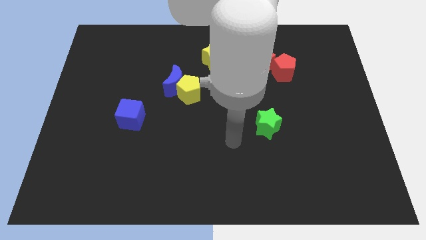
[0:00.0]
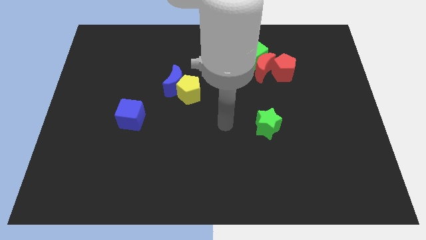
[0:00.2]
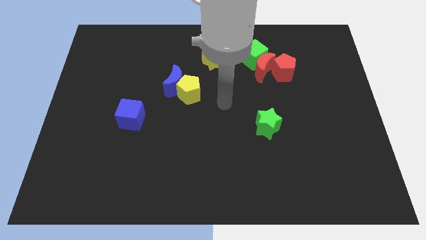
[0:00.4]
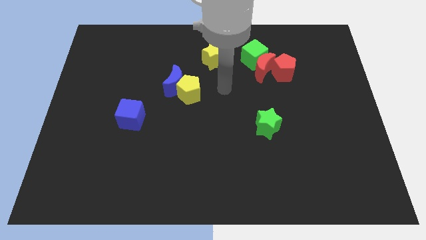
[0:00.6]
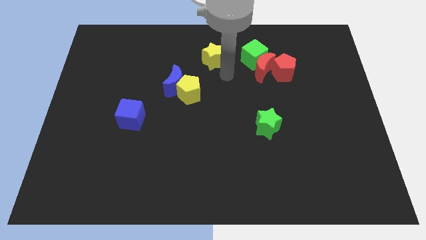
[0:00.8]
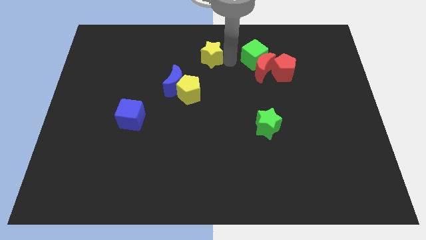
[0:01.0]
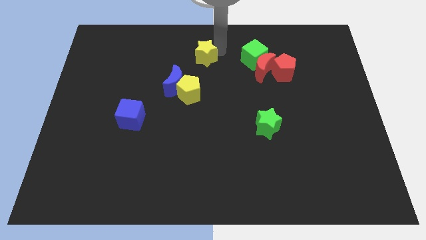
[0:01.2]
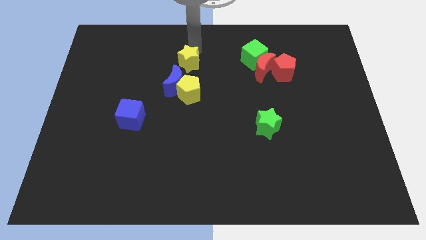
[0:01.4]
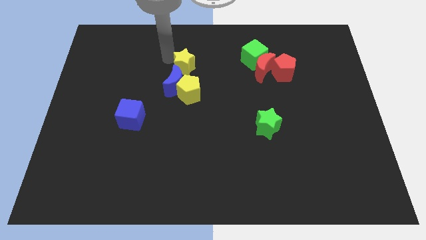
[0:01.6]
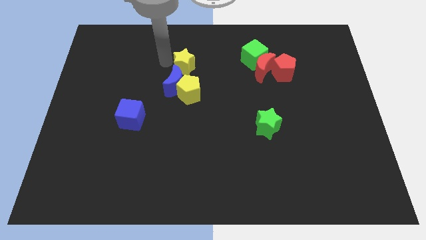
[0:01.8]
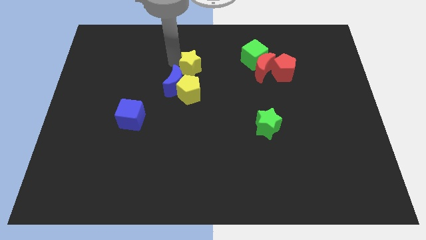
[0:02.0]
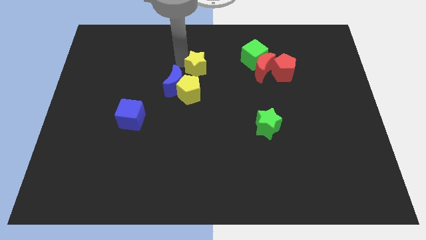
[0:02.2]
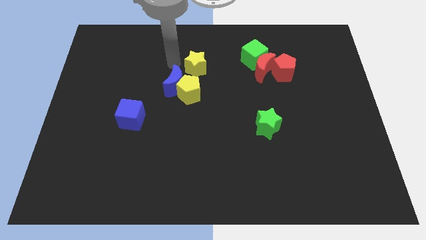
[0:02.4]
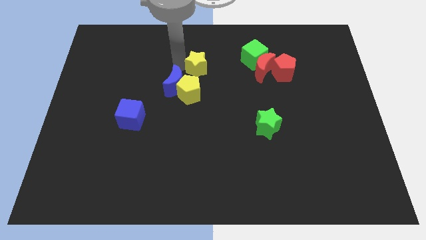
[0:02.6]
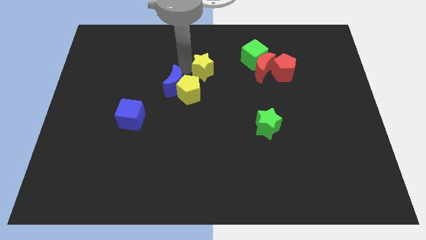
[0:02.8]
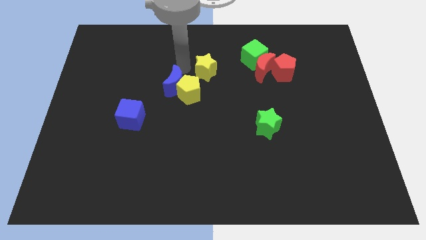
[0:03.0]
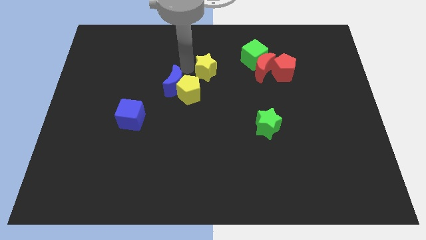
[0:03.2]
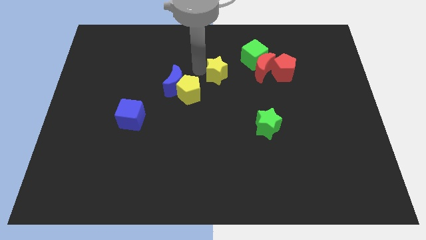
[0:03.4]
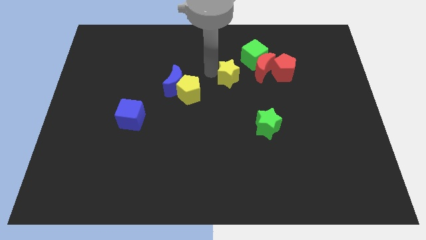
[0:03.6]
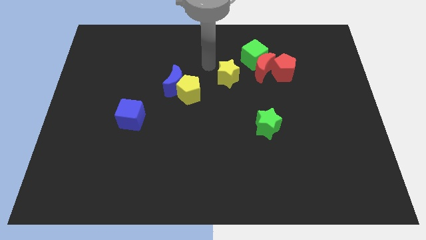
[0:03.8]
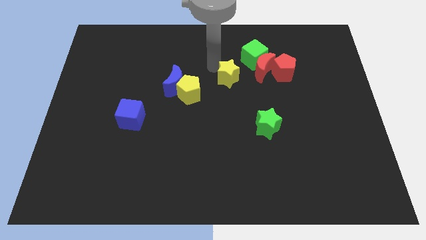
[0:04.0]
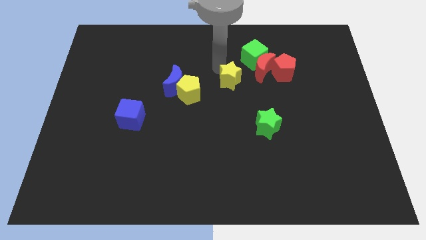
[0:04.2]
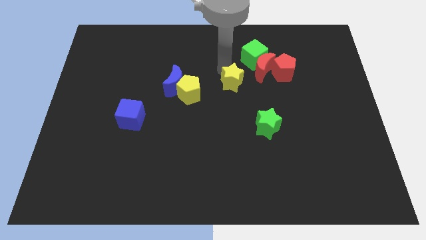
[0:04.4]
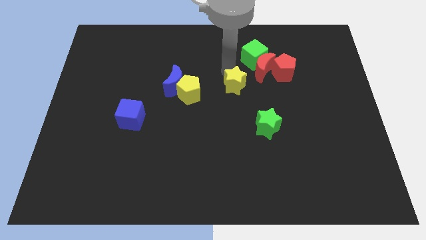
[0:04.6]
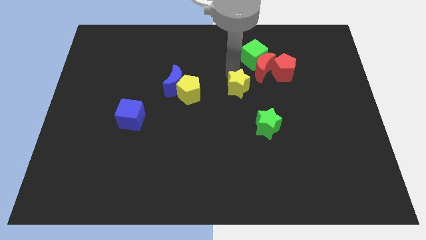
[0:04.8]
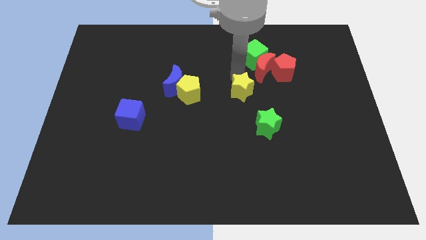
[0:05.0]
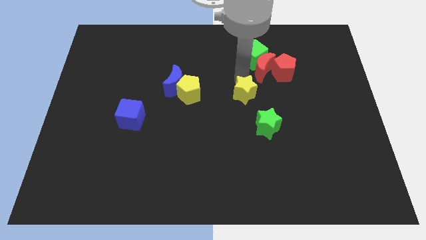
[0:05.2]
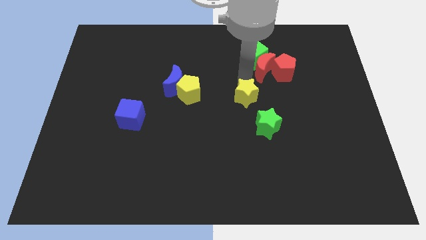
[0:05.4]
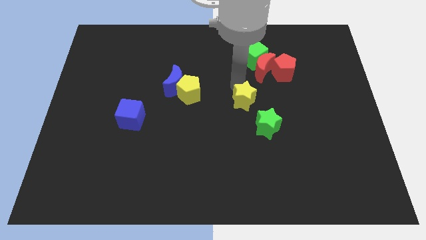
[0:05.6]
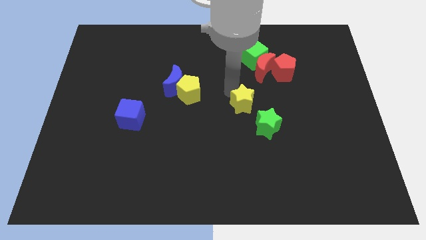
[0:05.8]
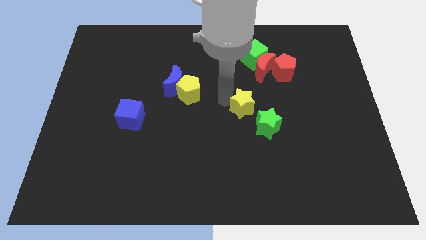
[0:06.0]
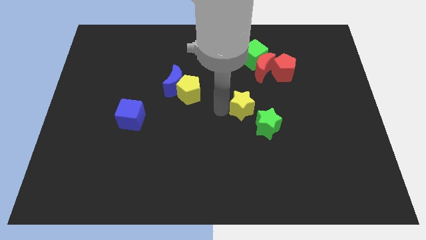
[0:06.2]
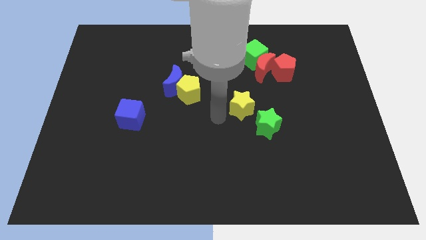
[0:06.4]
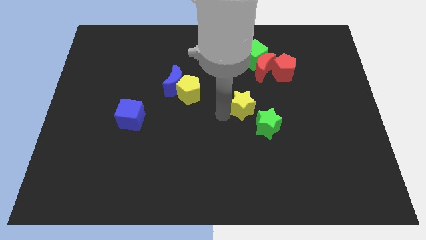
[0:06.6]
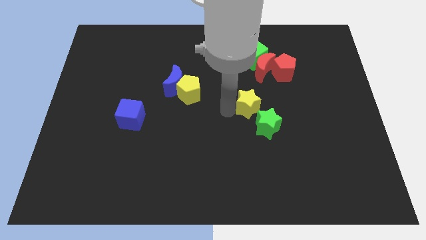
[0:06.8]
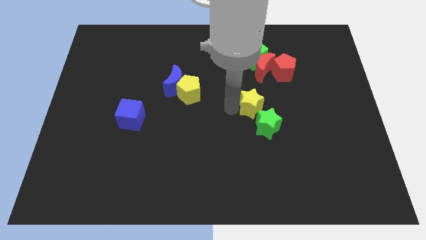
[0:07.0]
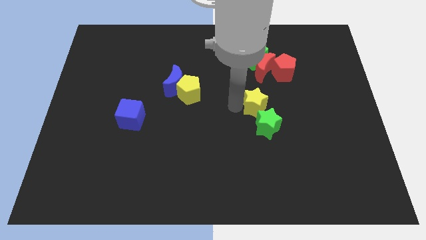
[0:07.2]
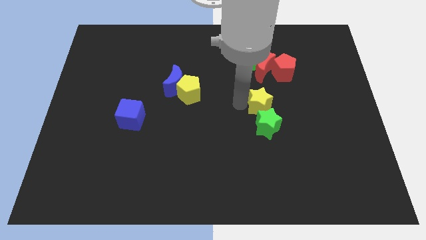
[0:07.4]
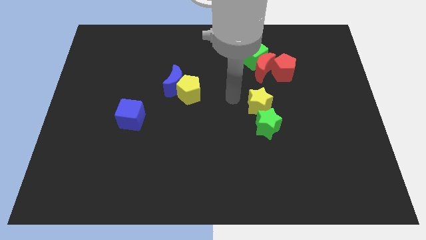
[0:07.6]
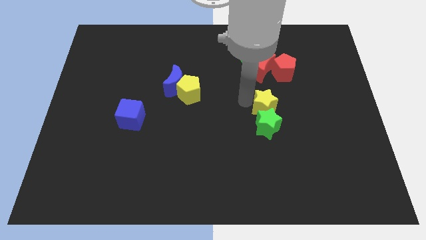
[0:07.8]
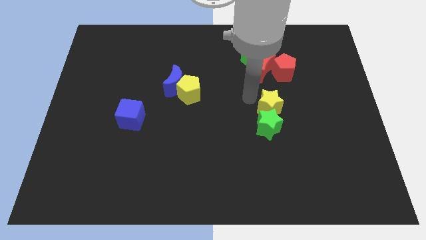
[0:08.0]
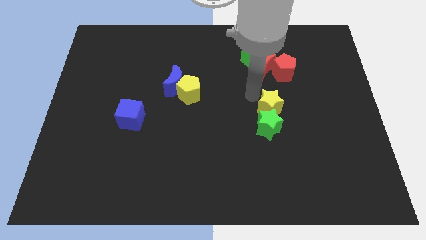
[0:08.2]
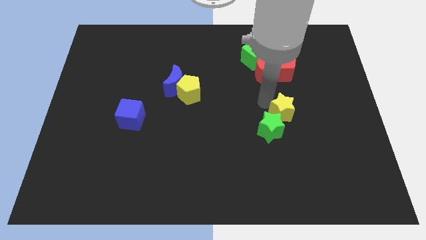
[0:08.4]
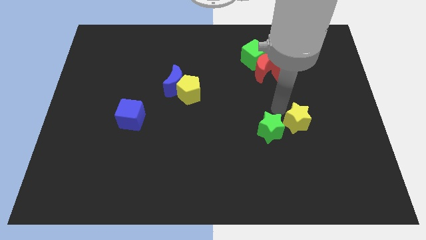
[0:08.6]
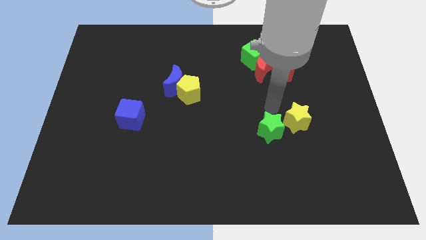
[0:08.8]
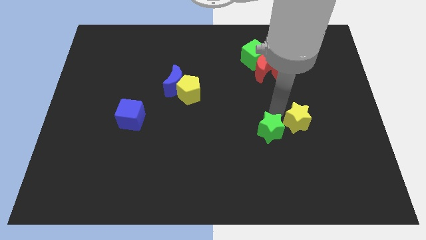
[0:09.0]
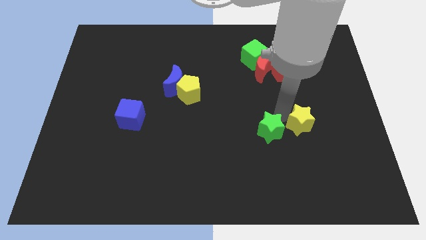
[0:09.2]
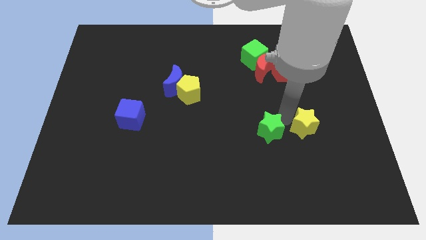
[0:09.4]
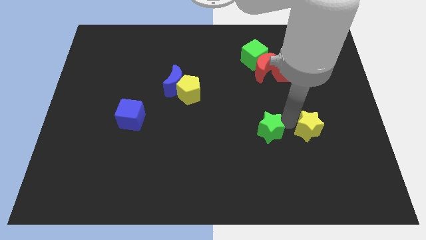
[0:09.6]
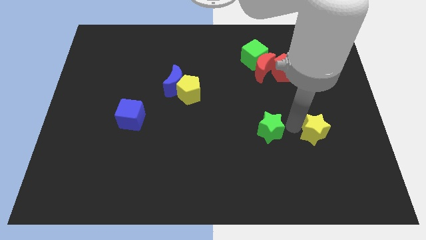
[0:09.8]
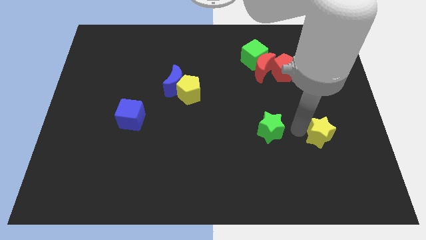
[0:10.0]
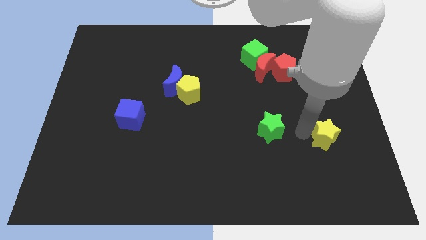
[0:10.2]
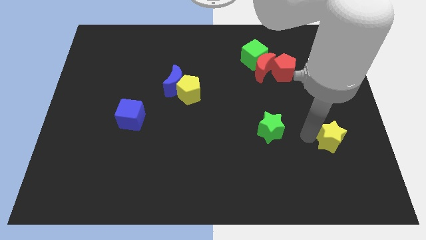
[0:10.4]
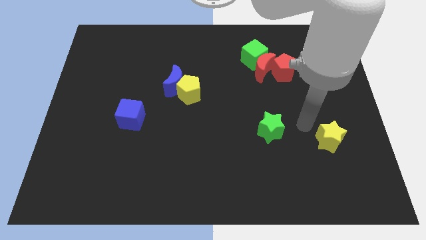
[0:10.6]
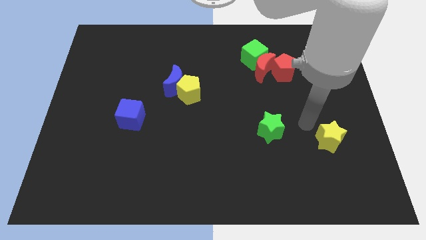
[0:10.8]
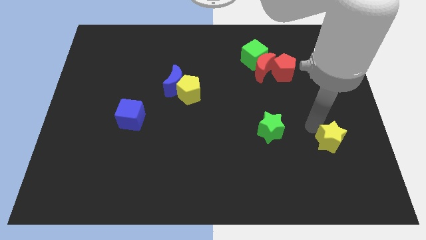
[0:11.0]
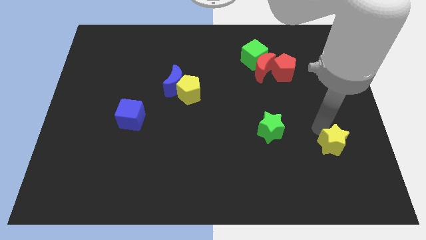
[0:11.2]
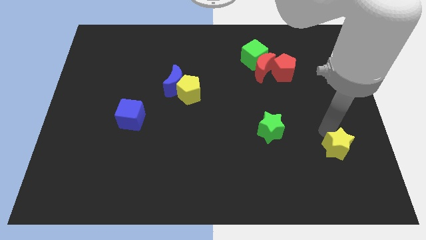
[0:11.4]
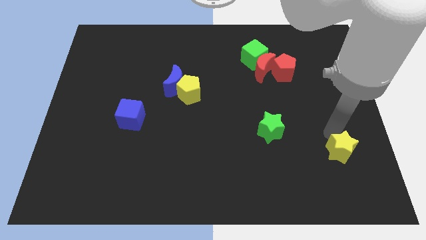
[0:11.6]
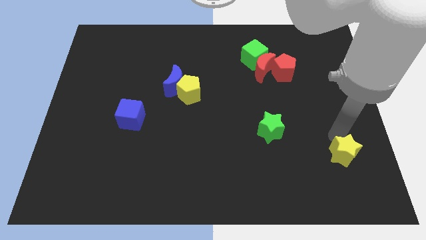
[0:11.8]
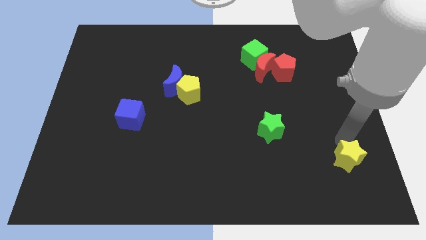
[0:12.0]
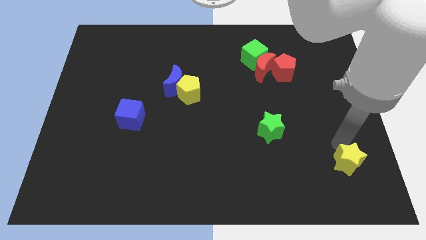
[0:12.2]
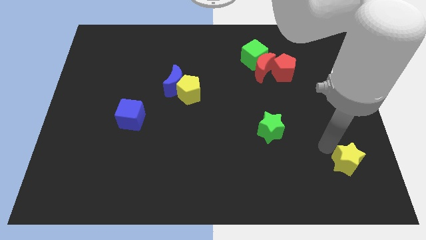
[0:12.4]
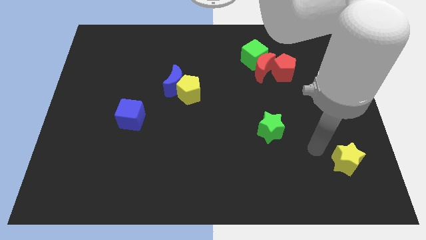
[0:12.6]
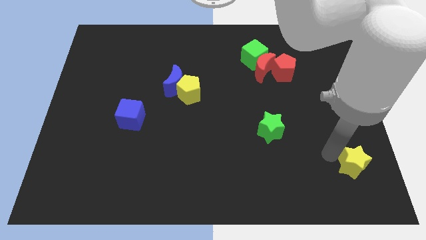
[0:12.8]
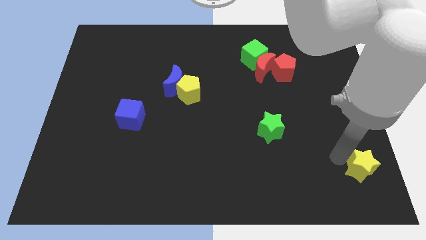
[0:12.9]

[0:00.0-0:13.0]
move the yellow star to the lower right corner
